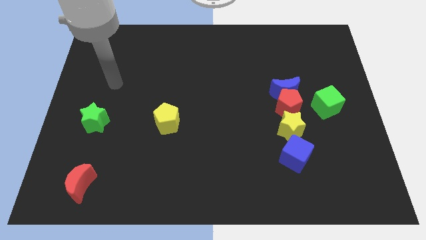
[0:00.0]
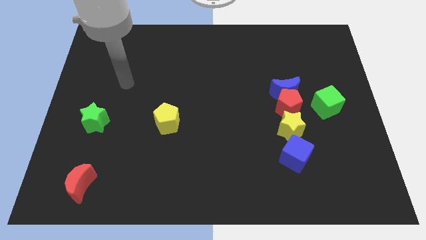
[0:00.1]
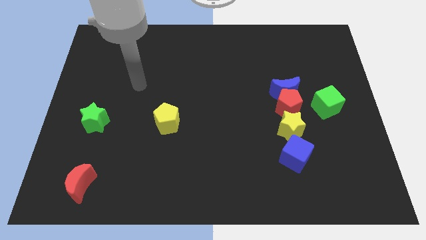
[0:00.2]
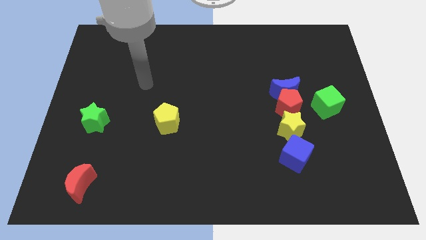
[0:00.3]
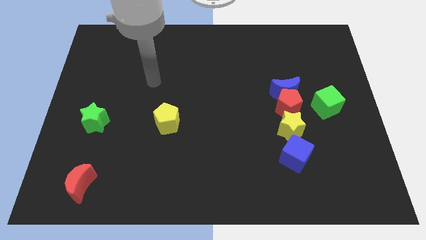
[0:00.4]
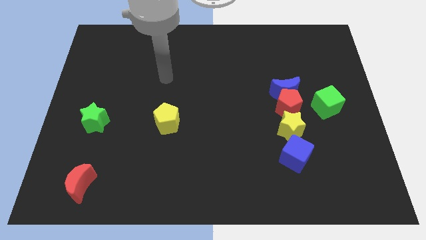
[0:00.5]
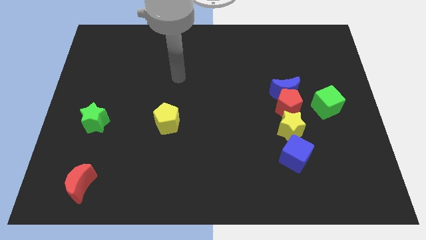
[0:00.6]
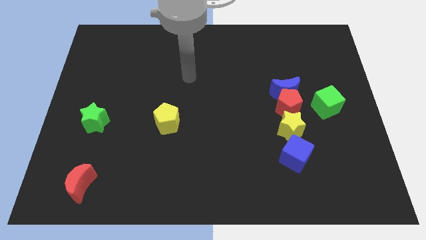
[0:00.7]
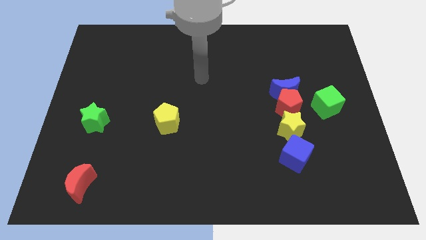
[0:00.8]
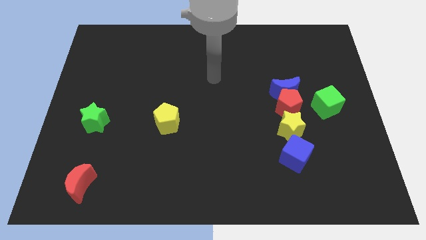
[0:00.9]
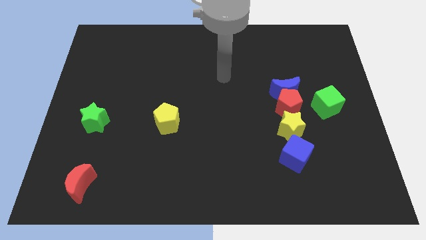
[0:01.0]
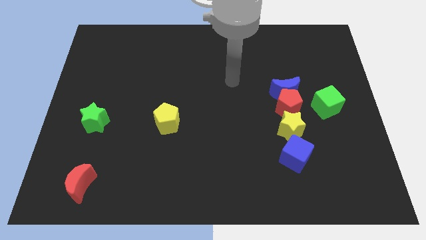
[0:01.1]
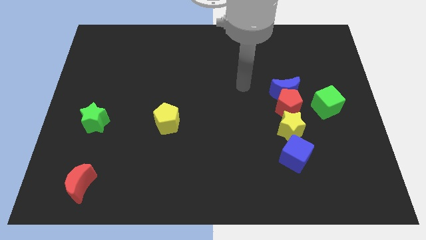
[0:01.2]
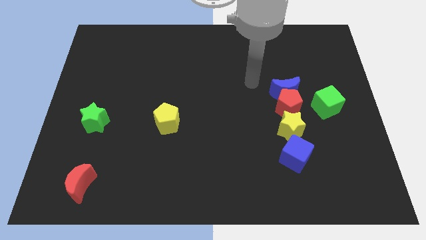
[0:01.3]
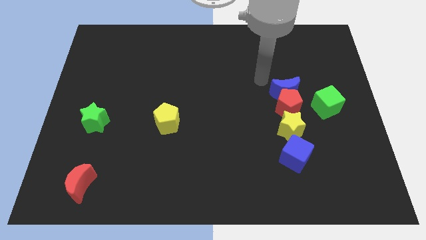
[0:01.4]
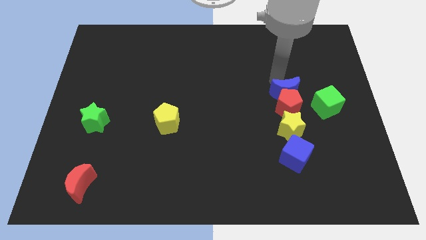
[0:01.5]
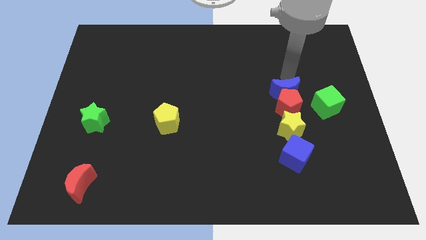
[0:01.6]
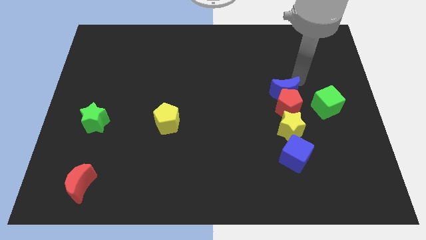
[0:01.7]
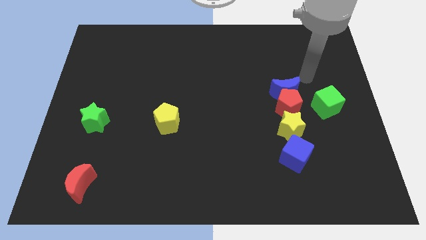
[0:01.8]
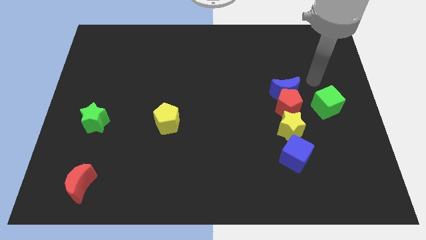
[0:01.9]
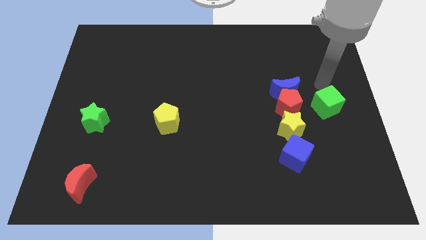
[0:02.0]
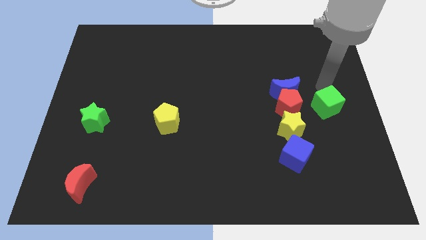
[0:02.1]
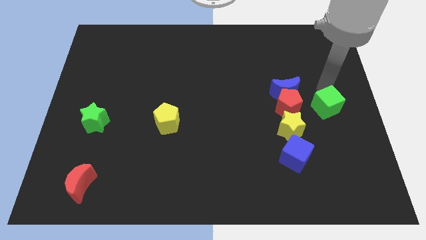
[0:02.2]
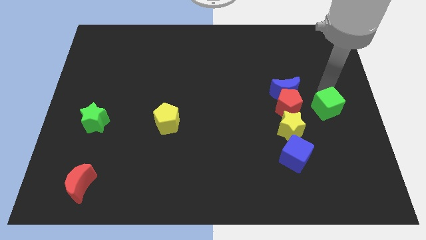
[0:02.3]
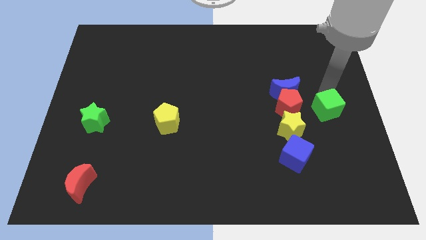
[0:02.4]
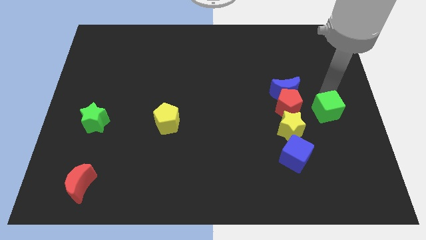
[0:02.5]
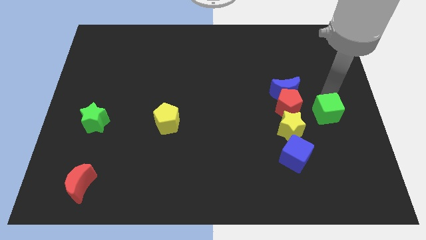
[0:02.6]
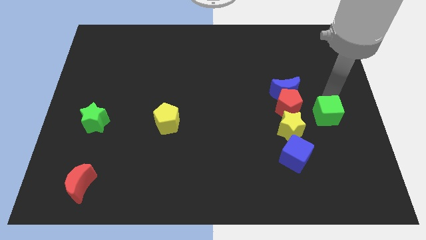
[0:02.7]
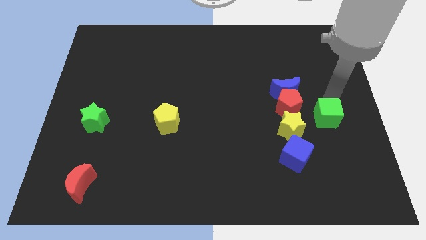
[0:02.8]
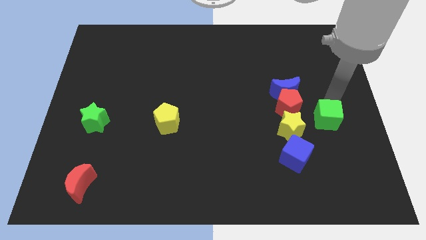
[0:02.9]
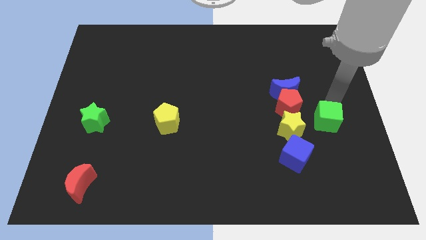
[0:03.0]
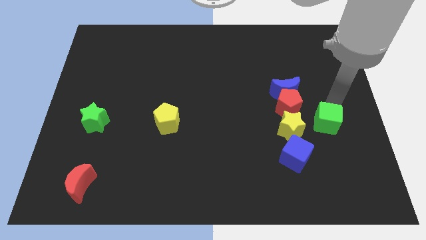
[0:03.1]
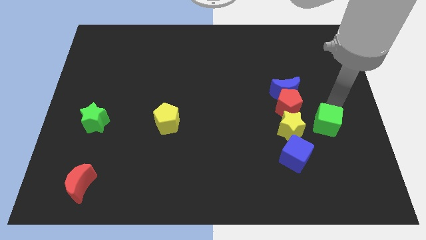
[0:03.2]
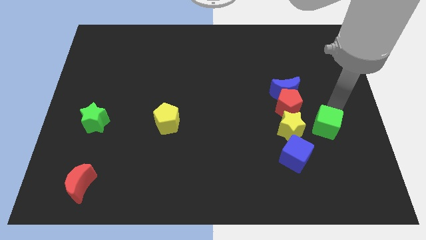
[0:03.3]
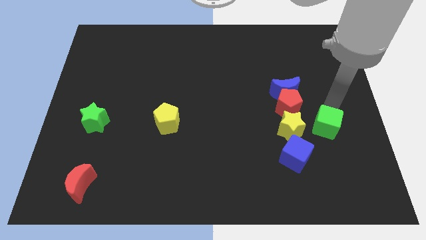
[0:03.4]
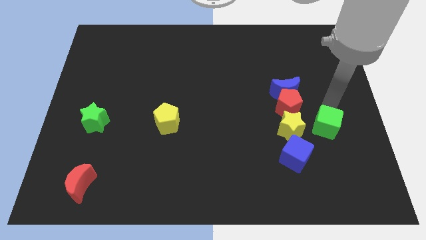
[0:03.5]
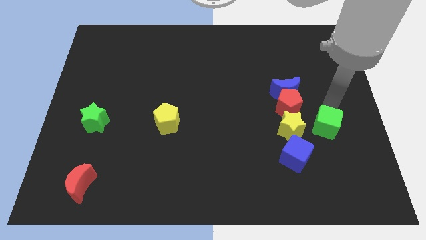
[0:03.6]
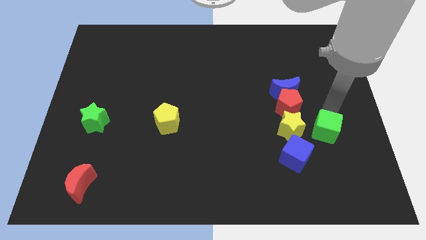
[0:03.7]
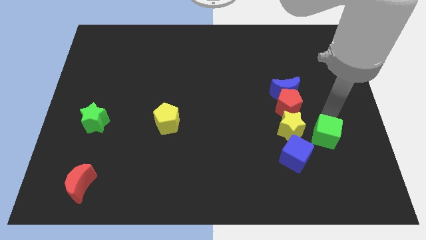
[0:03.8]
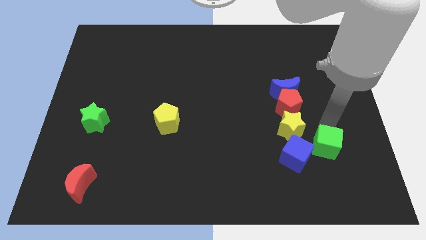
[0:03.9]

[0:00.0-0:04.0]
slide the green cube slightly diagonally downwards and to the left

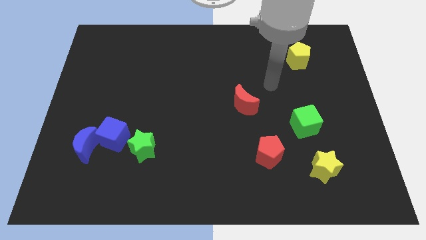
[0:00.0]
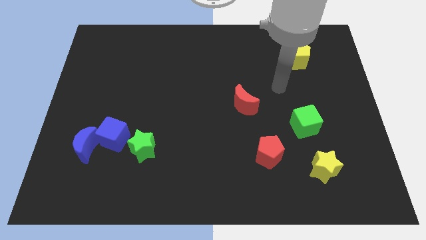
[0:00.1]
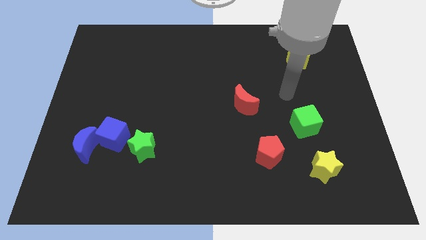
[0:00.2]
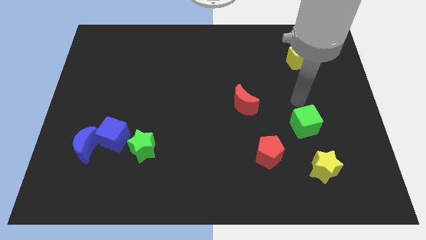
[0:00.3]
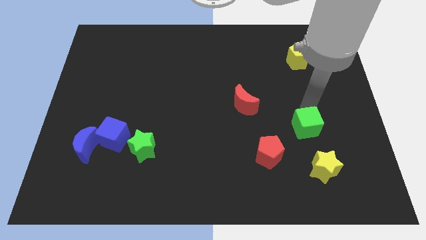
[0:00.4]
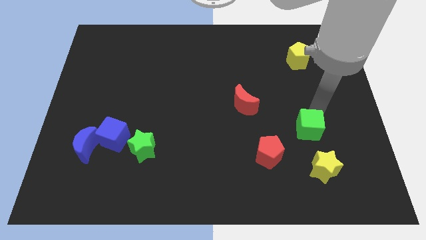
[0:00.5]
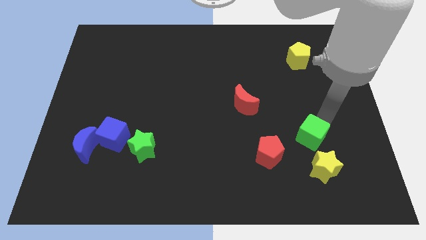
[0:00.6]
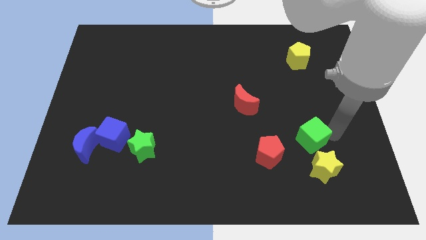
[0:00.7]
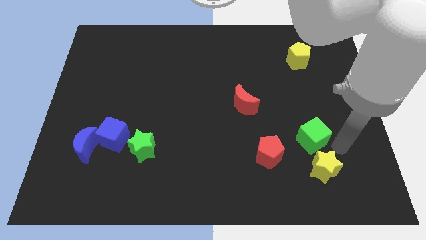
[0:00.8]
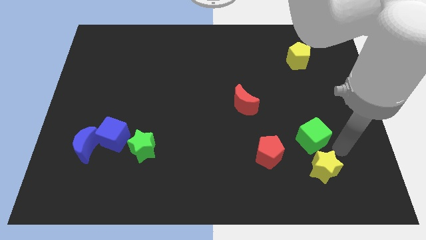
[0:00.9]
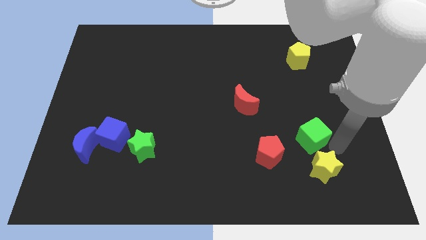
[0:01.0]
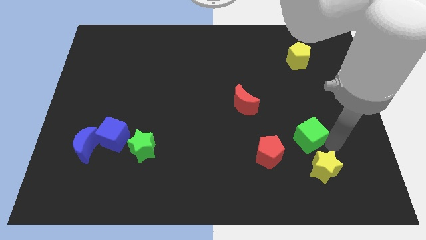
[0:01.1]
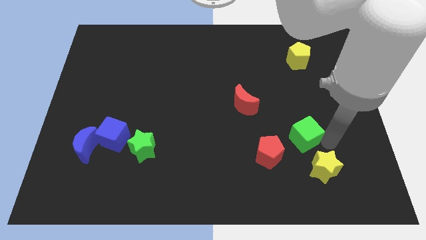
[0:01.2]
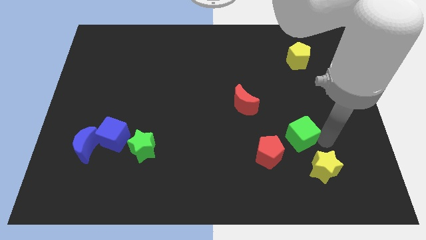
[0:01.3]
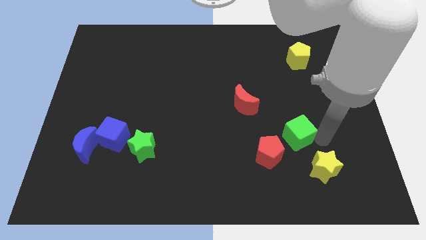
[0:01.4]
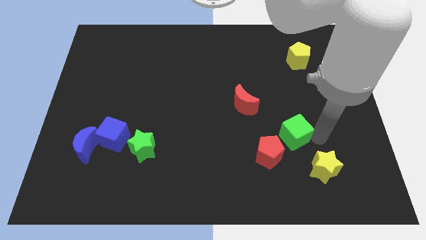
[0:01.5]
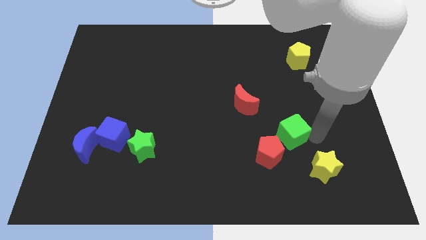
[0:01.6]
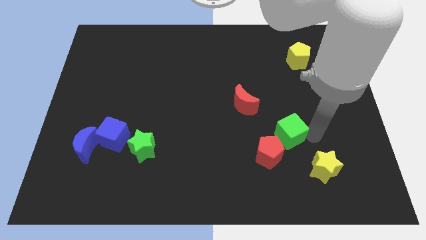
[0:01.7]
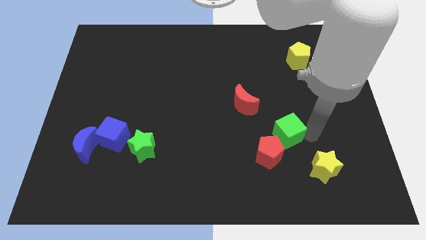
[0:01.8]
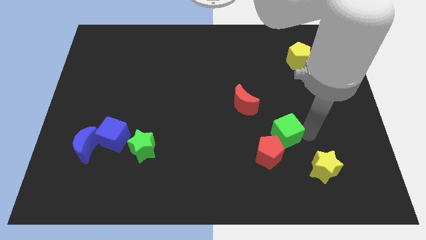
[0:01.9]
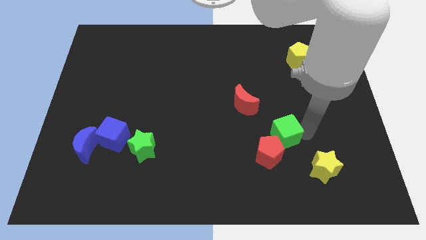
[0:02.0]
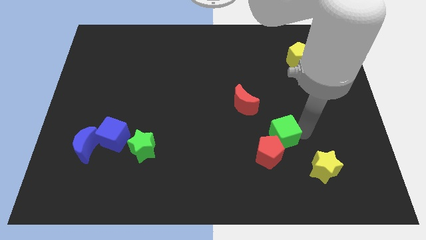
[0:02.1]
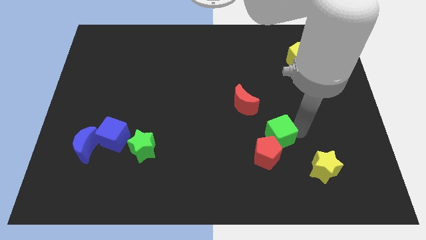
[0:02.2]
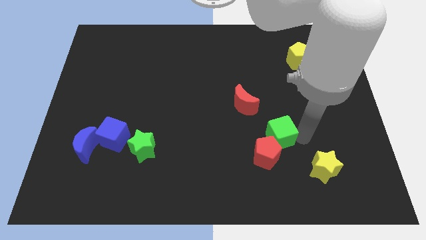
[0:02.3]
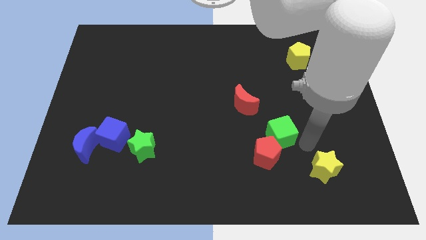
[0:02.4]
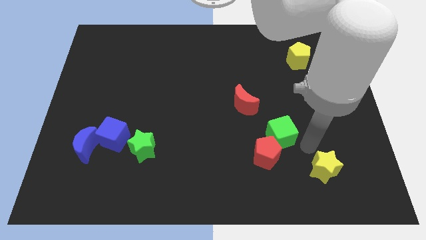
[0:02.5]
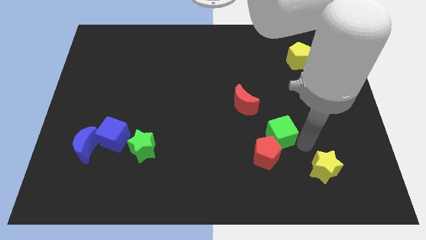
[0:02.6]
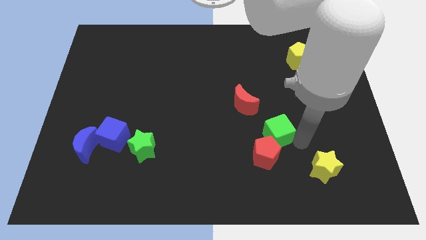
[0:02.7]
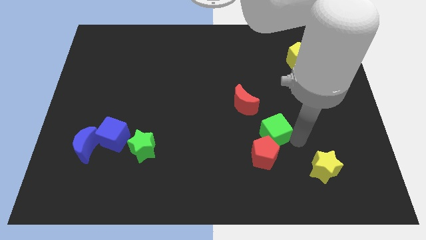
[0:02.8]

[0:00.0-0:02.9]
push the green cube to the left a bit

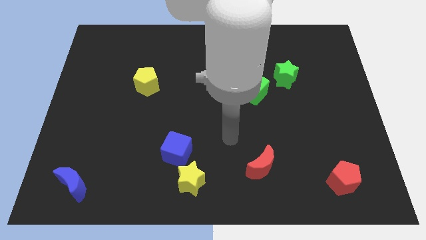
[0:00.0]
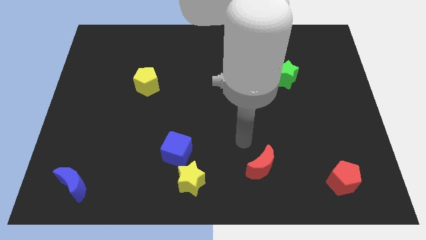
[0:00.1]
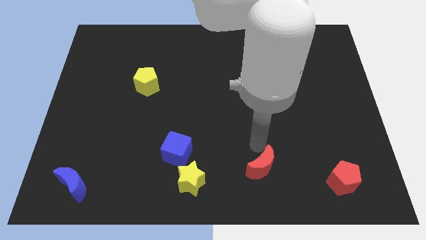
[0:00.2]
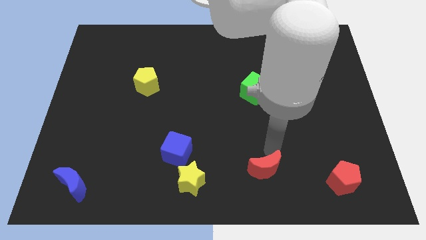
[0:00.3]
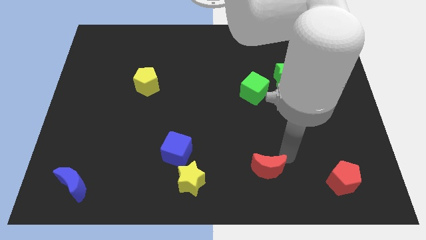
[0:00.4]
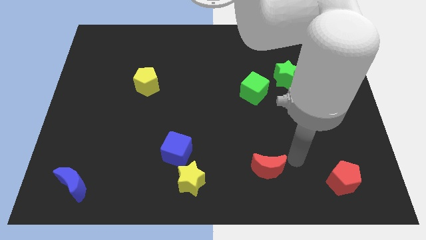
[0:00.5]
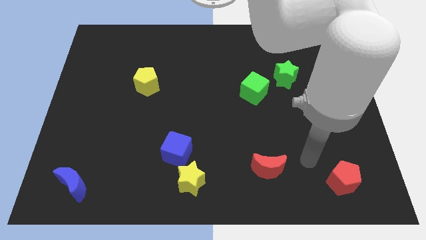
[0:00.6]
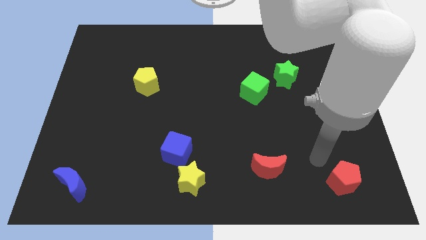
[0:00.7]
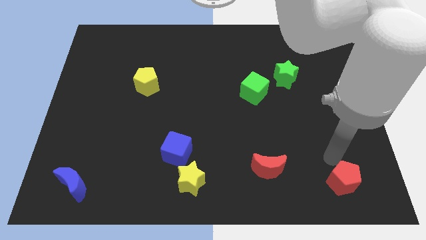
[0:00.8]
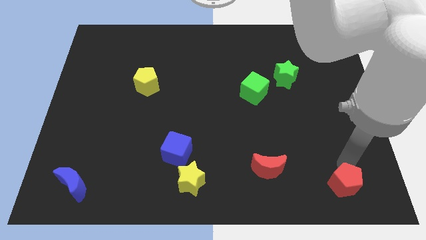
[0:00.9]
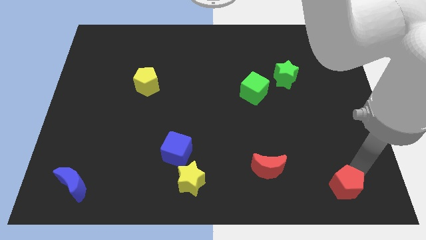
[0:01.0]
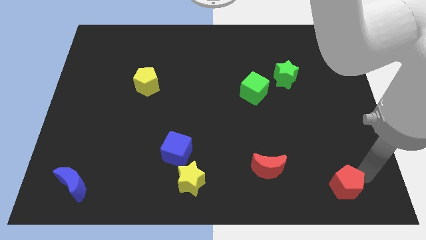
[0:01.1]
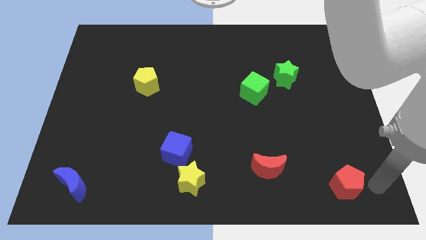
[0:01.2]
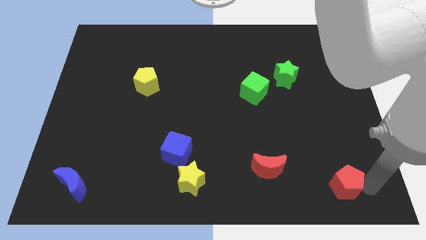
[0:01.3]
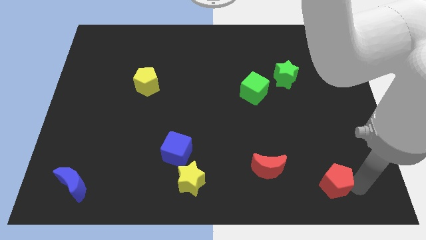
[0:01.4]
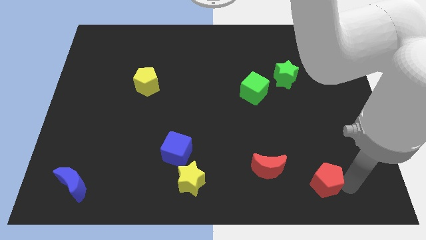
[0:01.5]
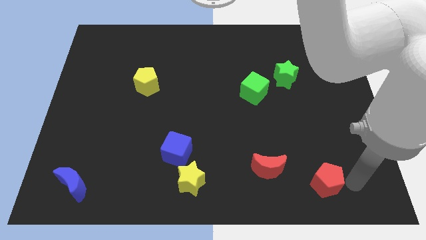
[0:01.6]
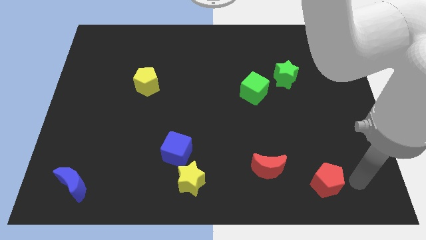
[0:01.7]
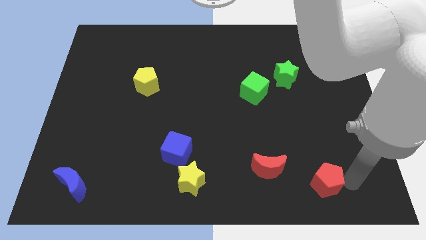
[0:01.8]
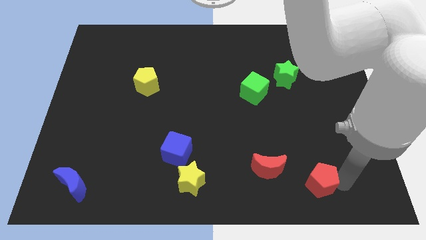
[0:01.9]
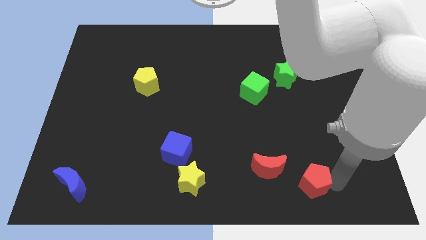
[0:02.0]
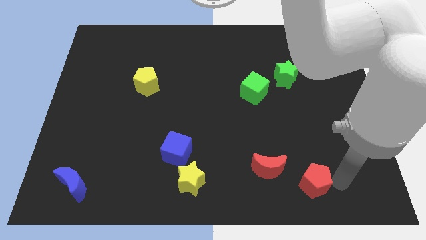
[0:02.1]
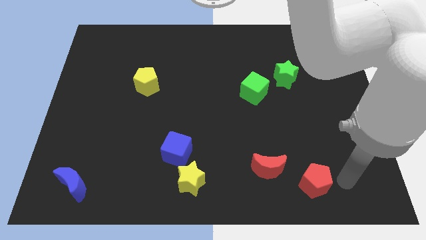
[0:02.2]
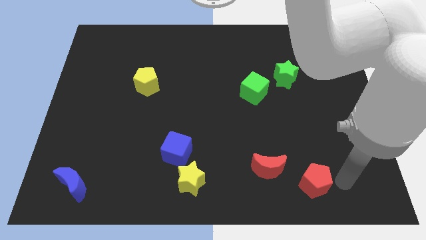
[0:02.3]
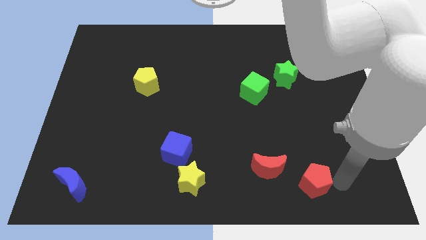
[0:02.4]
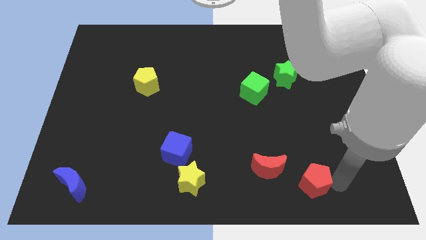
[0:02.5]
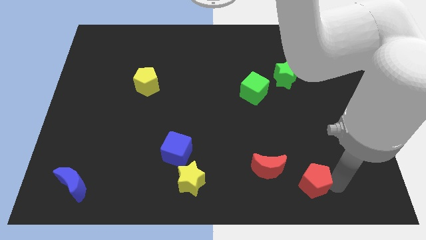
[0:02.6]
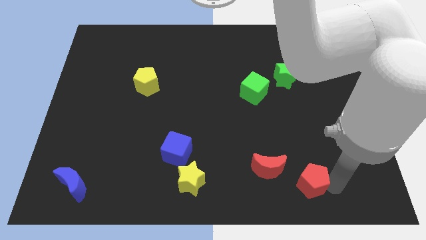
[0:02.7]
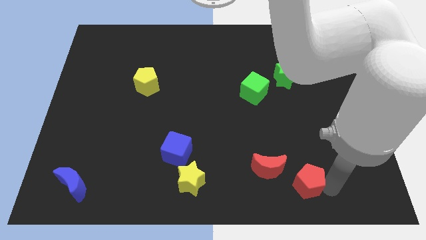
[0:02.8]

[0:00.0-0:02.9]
slightly push the red pentagon left
